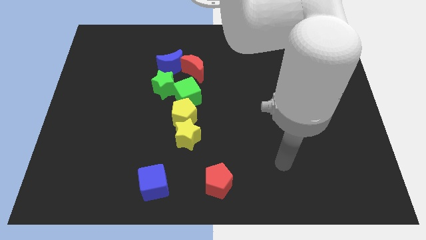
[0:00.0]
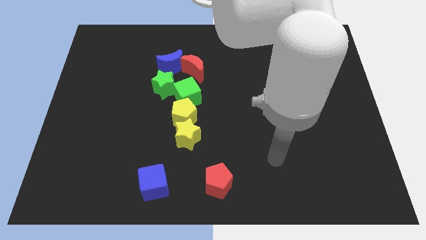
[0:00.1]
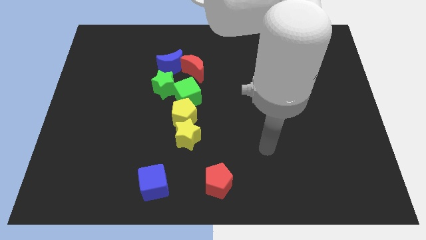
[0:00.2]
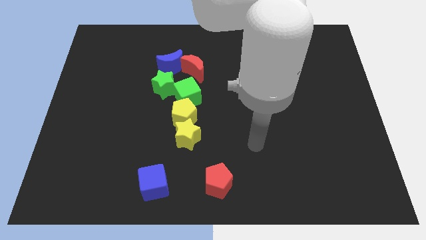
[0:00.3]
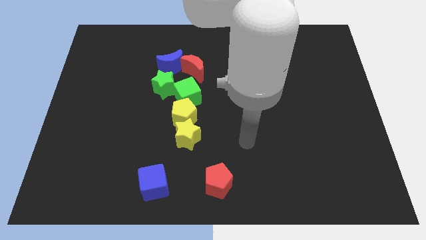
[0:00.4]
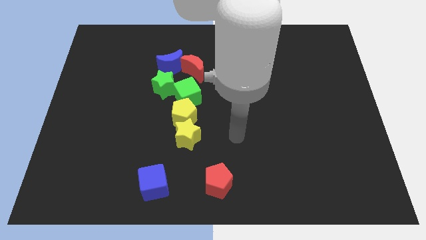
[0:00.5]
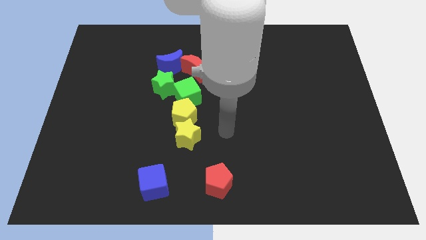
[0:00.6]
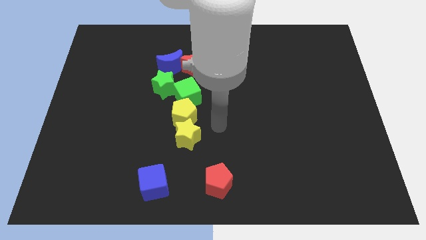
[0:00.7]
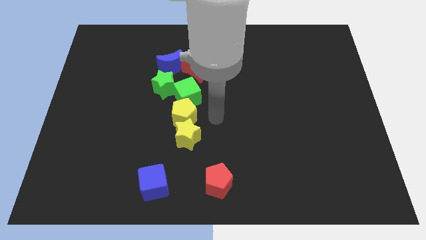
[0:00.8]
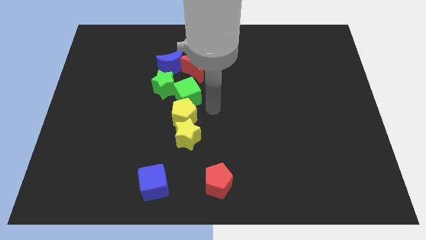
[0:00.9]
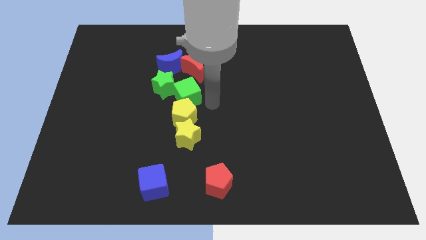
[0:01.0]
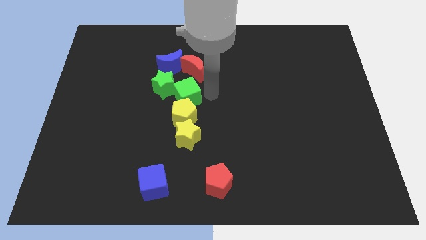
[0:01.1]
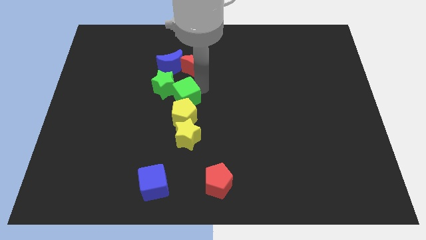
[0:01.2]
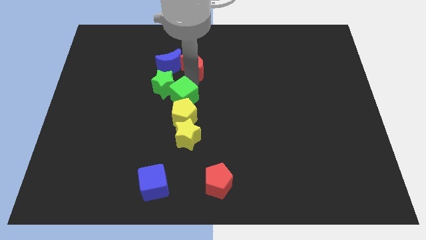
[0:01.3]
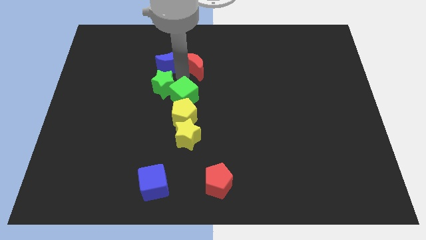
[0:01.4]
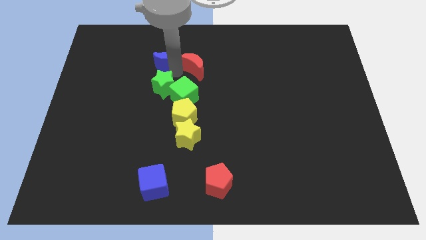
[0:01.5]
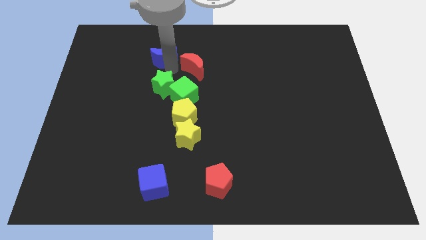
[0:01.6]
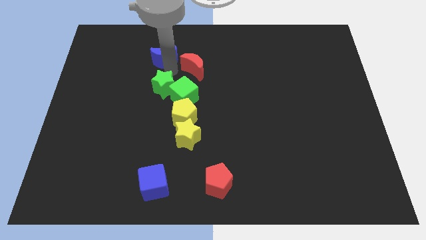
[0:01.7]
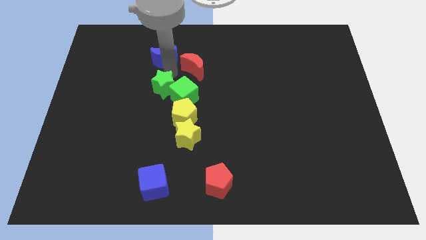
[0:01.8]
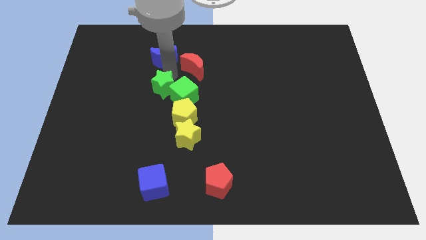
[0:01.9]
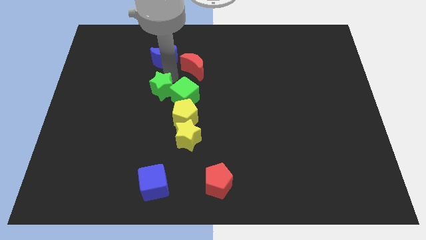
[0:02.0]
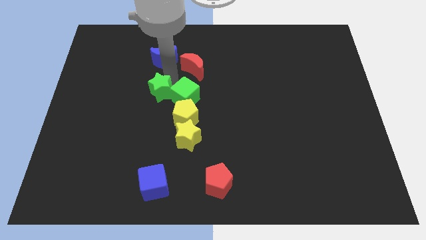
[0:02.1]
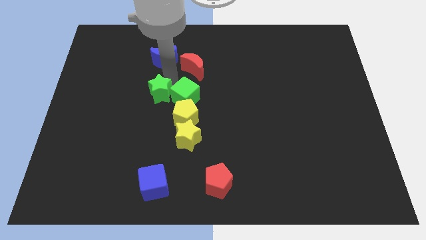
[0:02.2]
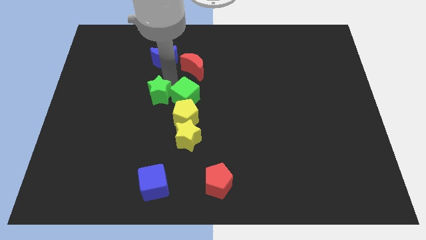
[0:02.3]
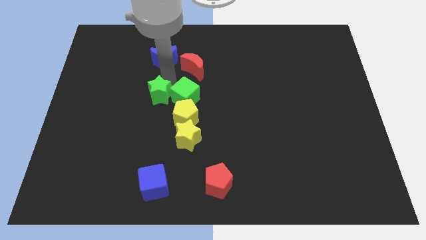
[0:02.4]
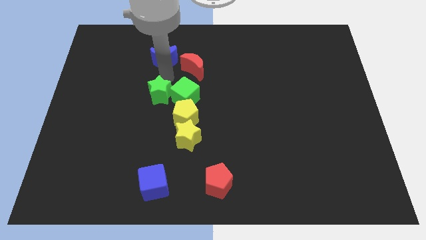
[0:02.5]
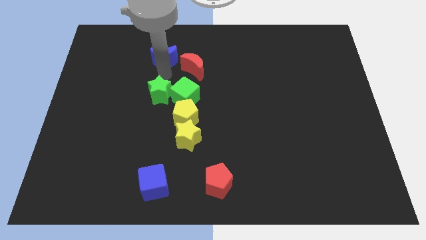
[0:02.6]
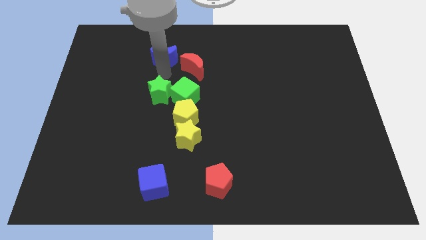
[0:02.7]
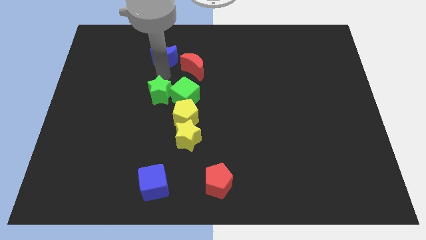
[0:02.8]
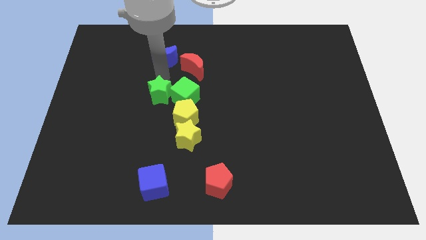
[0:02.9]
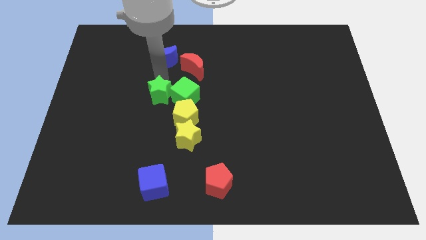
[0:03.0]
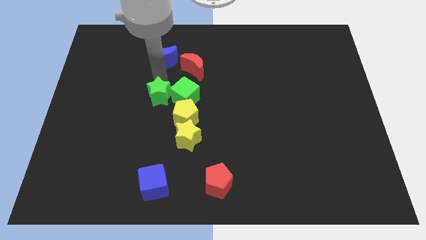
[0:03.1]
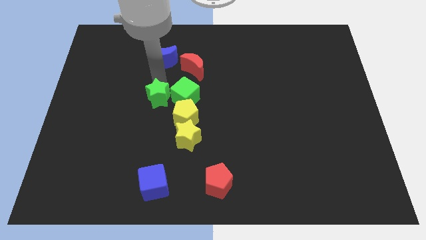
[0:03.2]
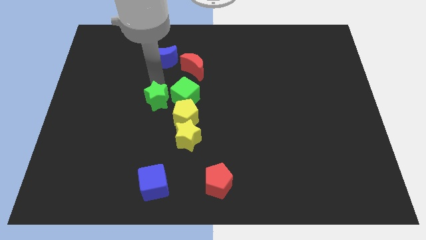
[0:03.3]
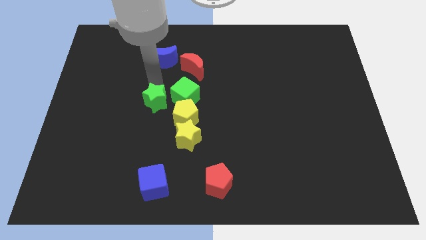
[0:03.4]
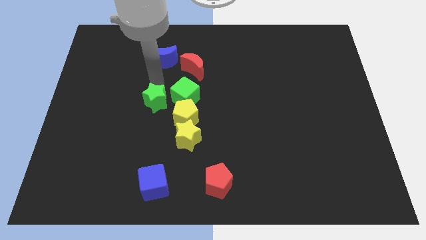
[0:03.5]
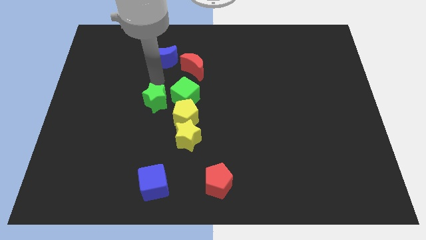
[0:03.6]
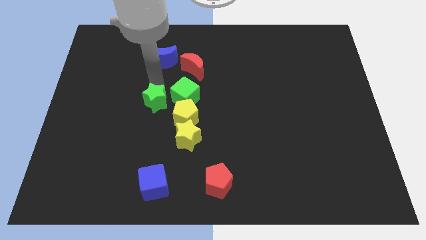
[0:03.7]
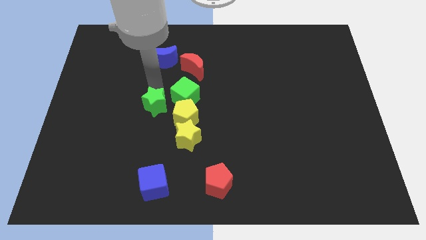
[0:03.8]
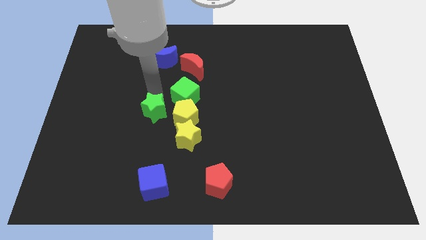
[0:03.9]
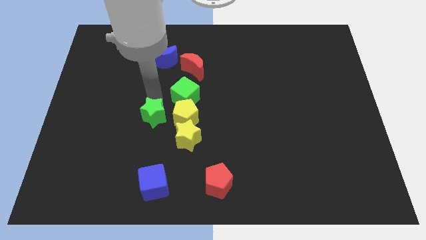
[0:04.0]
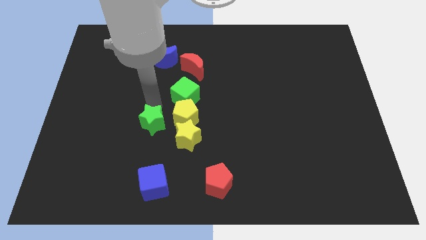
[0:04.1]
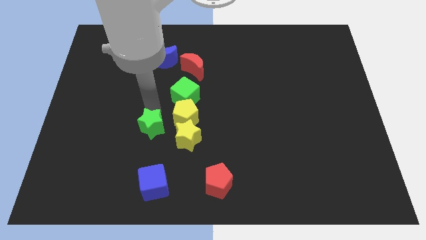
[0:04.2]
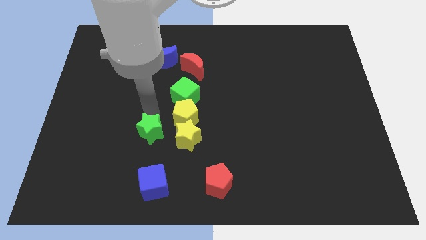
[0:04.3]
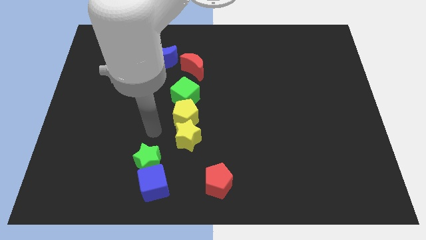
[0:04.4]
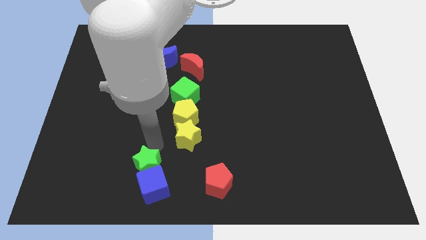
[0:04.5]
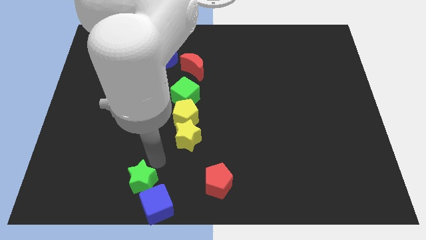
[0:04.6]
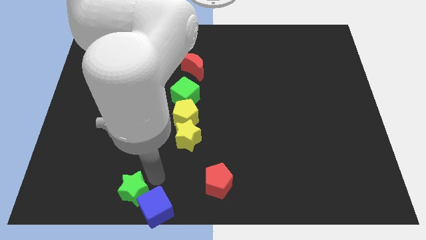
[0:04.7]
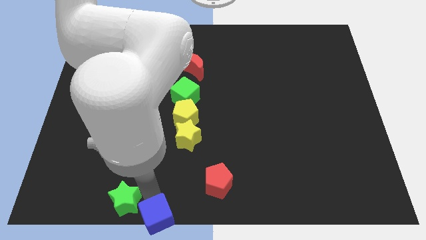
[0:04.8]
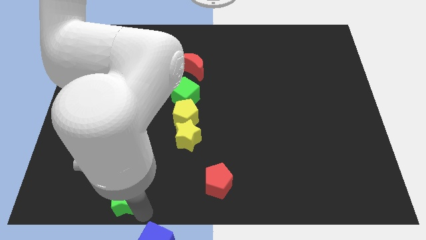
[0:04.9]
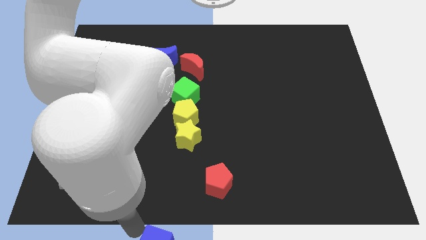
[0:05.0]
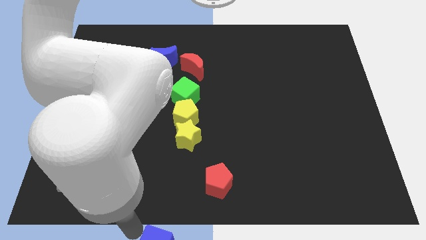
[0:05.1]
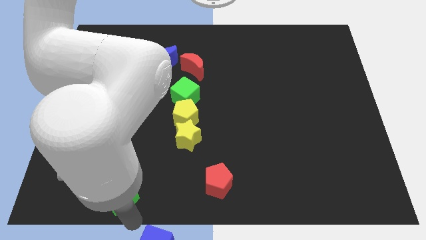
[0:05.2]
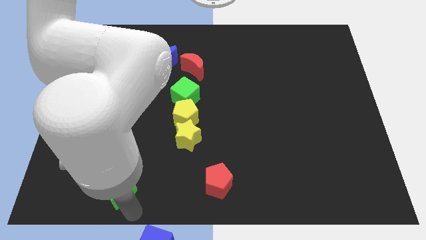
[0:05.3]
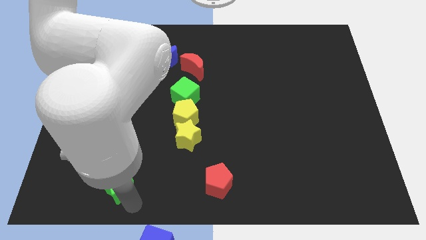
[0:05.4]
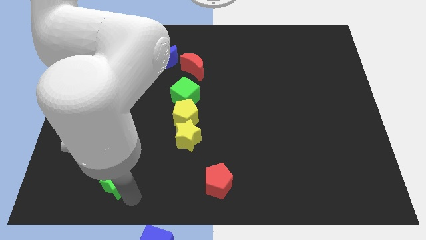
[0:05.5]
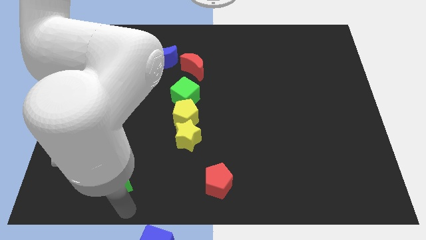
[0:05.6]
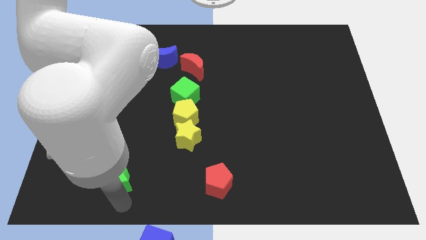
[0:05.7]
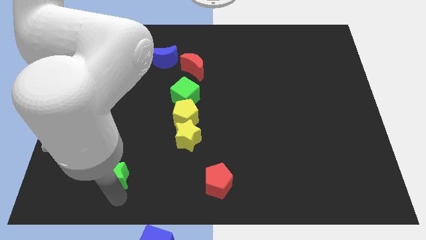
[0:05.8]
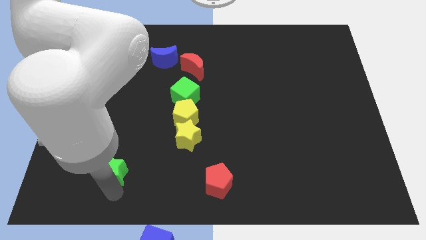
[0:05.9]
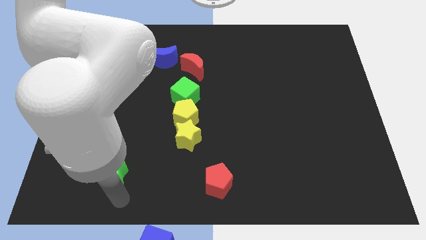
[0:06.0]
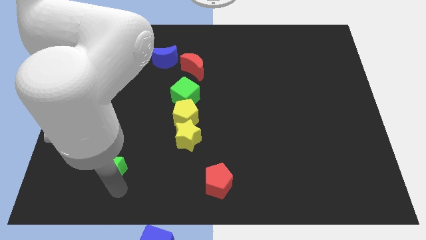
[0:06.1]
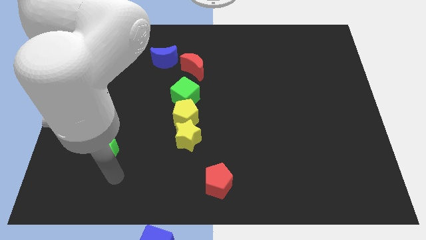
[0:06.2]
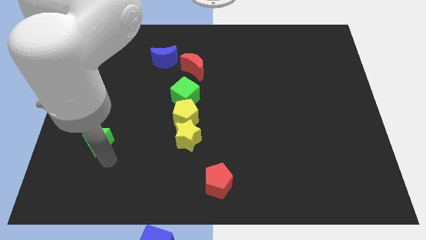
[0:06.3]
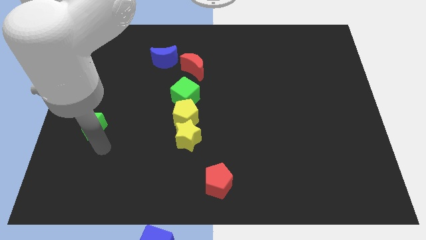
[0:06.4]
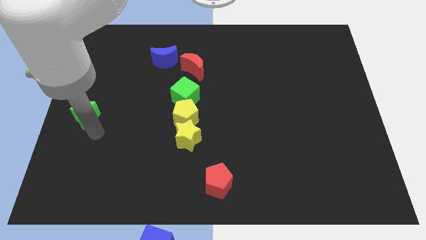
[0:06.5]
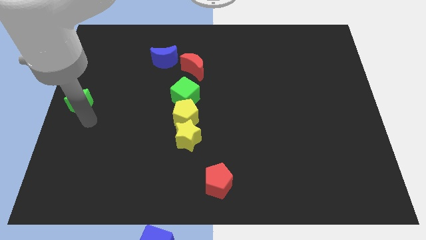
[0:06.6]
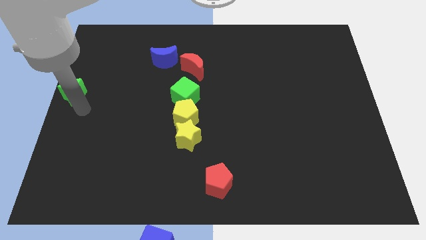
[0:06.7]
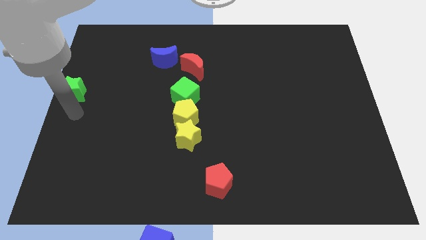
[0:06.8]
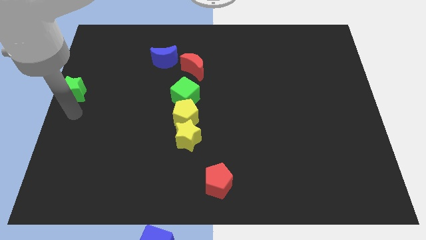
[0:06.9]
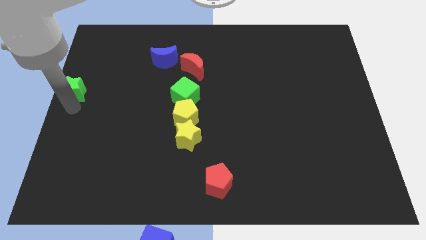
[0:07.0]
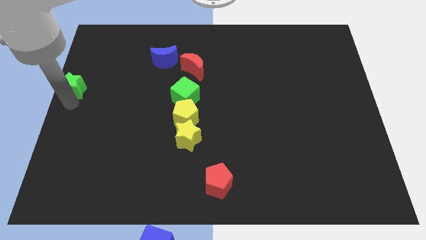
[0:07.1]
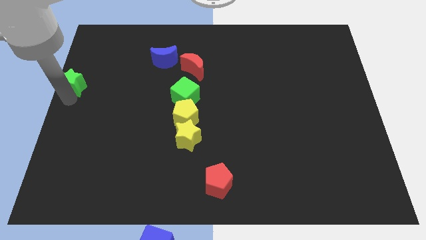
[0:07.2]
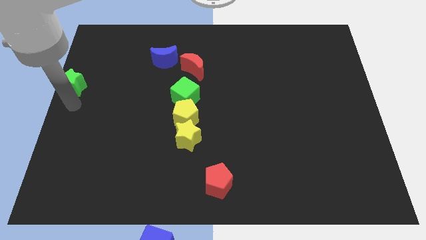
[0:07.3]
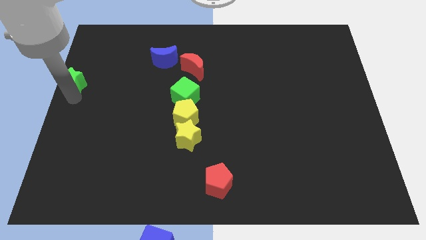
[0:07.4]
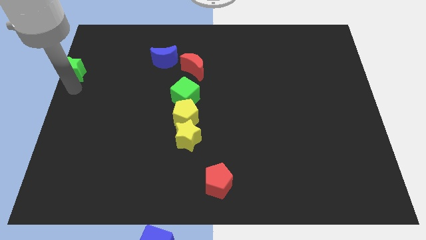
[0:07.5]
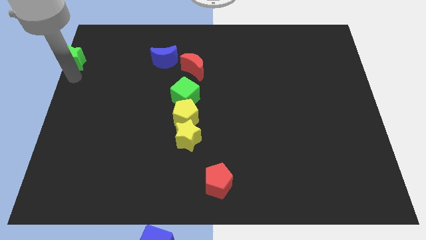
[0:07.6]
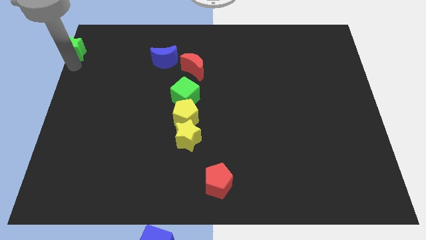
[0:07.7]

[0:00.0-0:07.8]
push the green star to the top left corner
